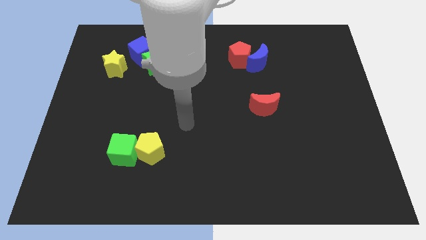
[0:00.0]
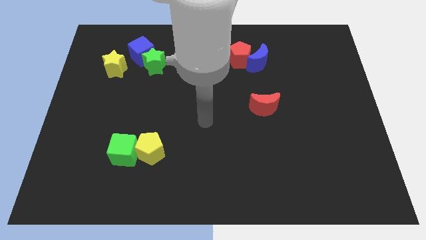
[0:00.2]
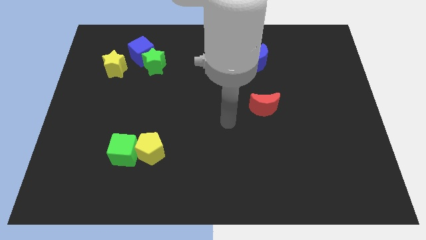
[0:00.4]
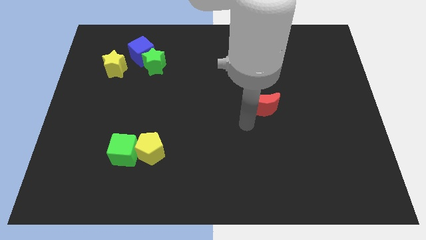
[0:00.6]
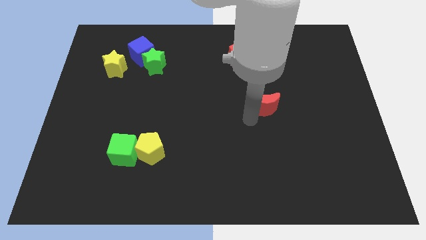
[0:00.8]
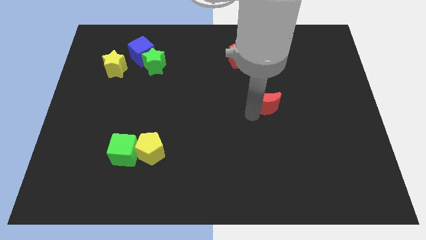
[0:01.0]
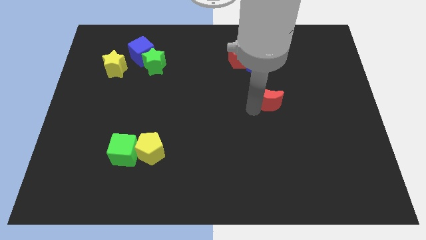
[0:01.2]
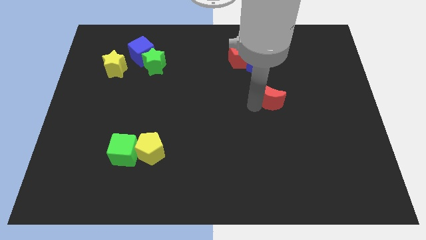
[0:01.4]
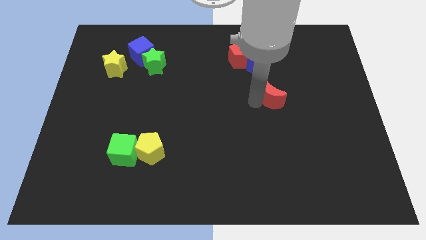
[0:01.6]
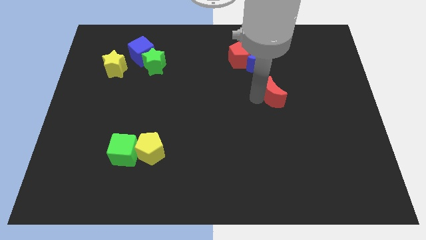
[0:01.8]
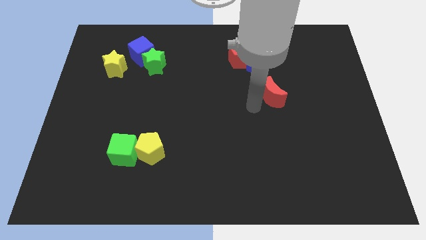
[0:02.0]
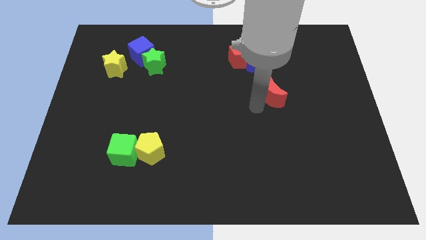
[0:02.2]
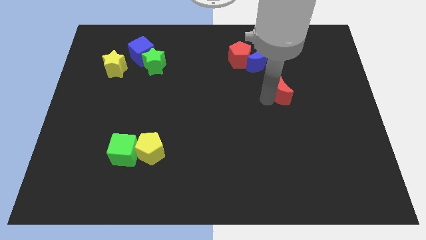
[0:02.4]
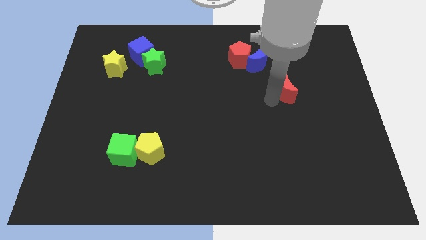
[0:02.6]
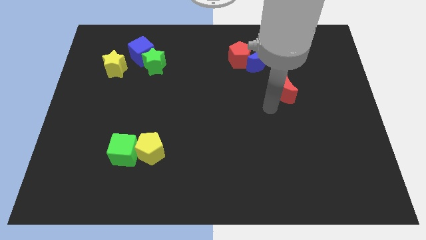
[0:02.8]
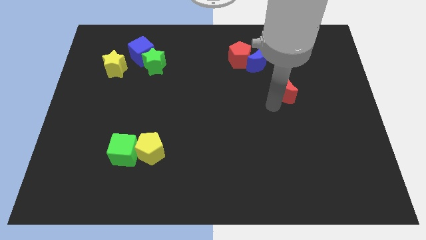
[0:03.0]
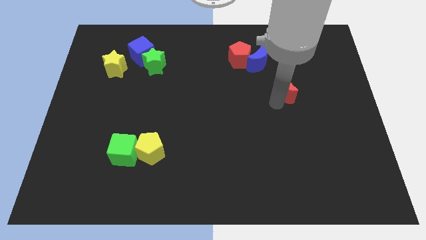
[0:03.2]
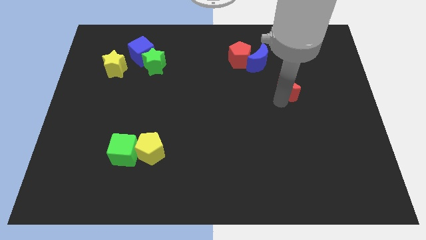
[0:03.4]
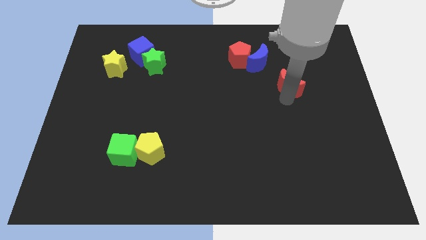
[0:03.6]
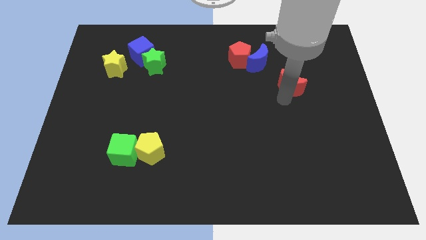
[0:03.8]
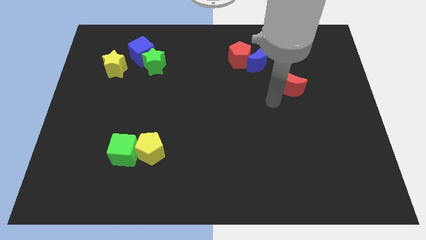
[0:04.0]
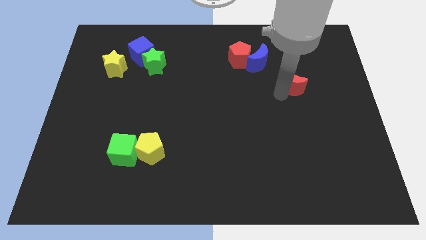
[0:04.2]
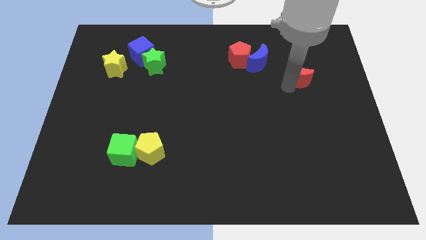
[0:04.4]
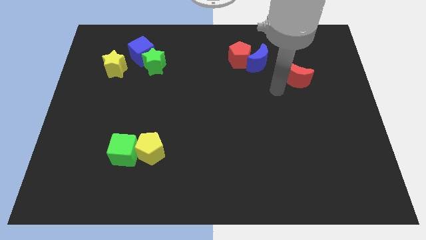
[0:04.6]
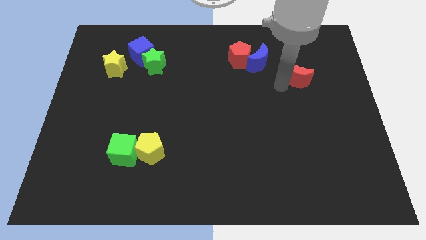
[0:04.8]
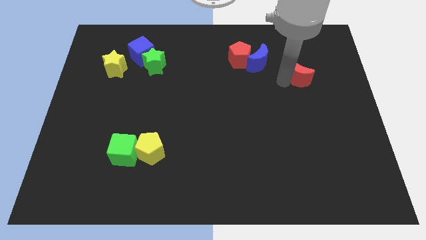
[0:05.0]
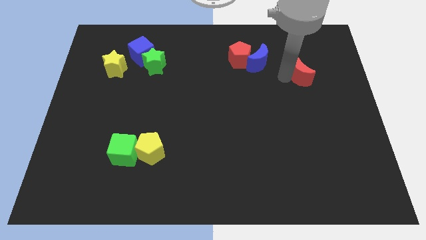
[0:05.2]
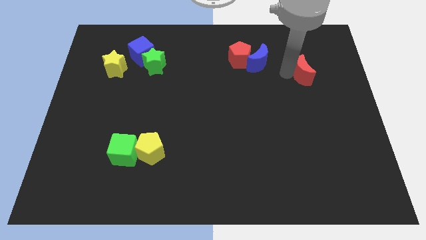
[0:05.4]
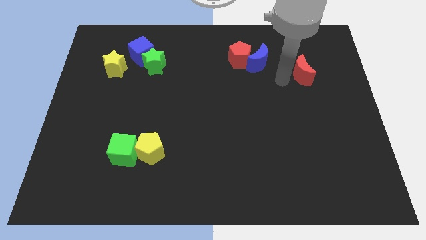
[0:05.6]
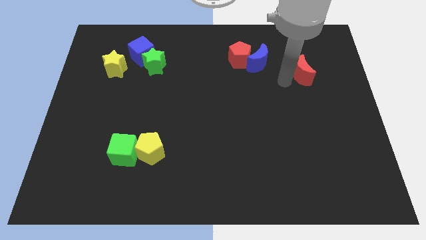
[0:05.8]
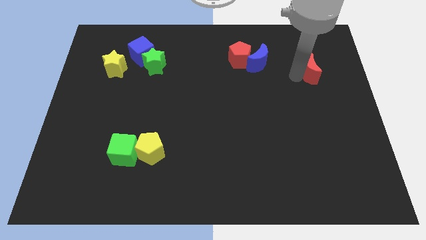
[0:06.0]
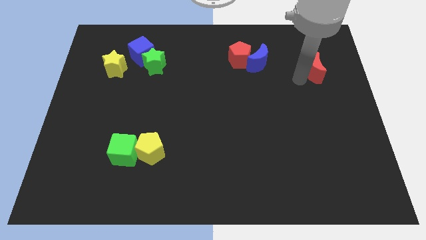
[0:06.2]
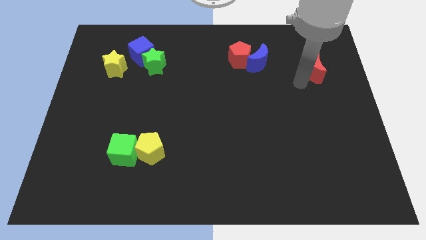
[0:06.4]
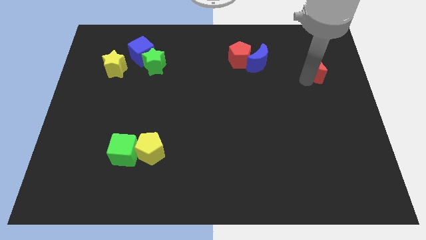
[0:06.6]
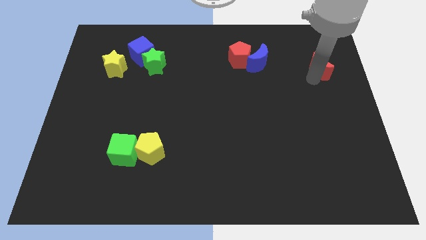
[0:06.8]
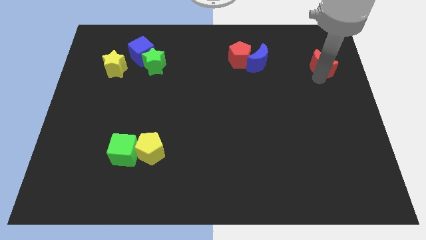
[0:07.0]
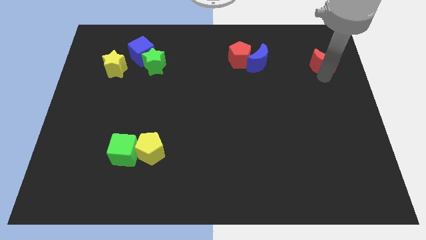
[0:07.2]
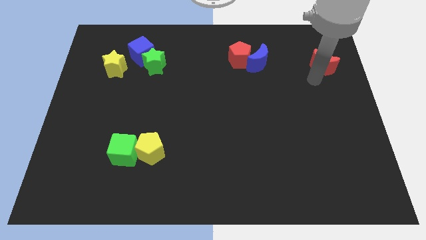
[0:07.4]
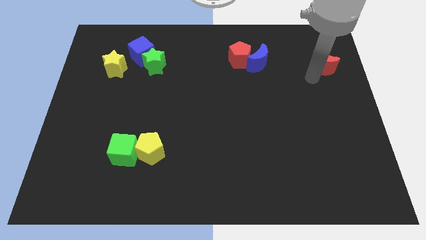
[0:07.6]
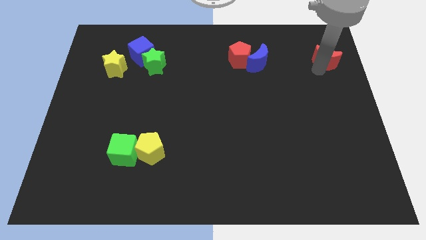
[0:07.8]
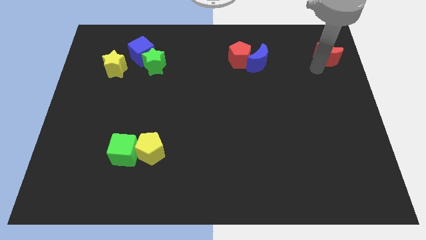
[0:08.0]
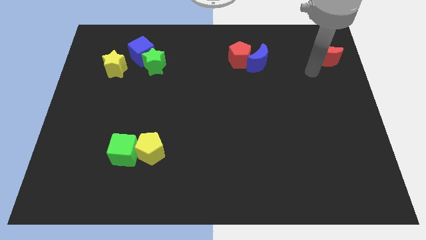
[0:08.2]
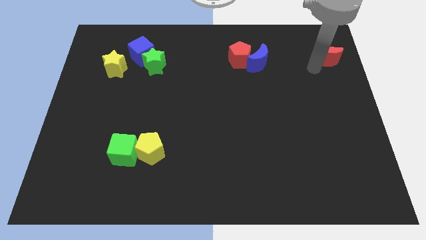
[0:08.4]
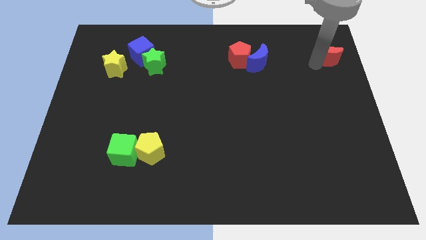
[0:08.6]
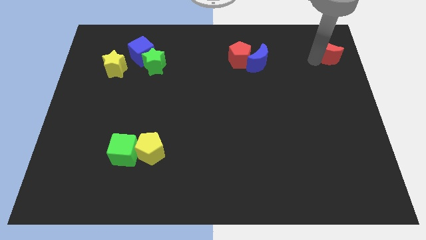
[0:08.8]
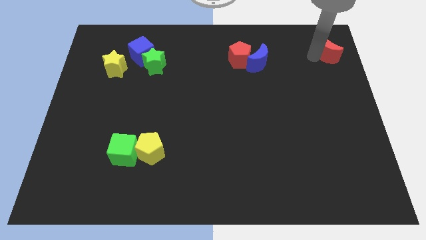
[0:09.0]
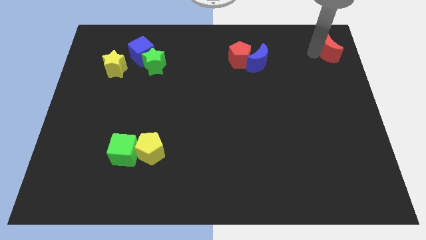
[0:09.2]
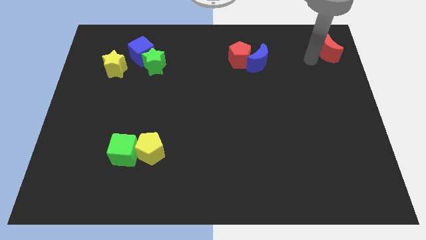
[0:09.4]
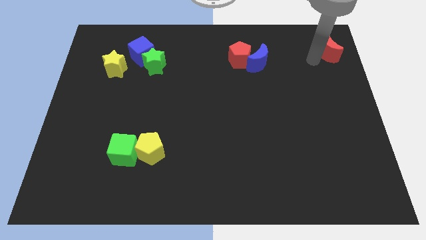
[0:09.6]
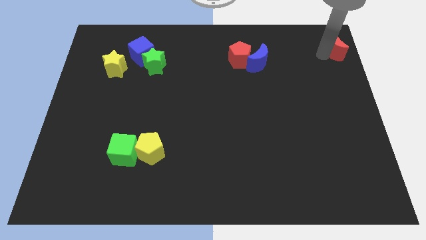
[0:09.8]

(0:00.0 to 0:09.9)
push the red moon to the top right

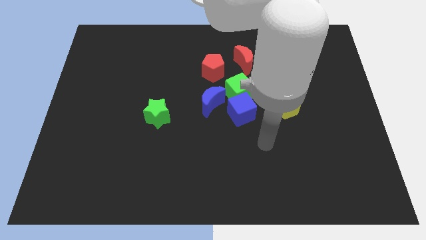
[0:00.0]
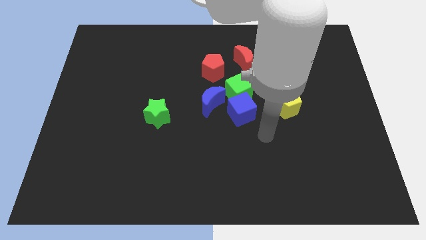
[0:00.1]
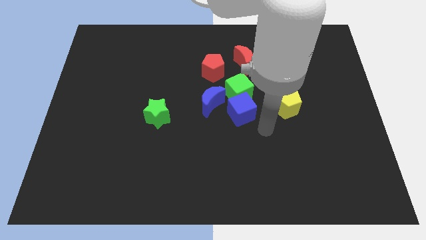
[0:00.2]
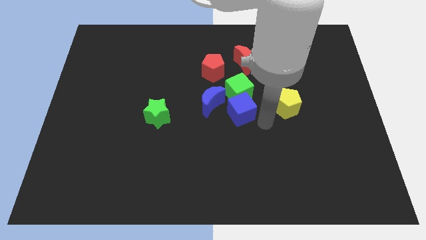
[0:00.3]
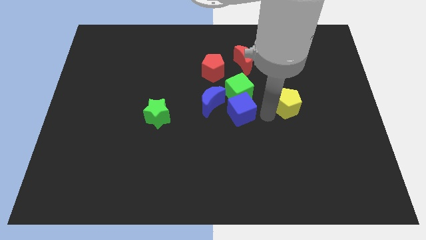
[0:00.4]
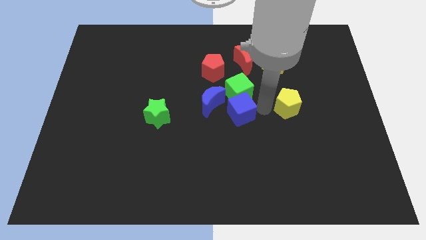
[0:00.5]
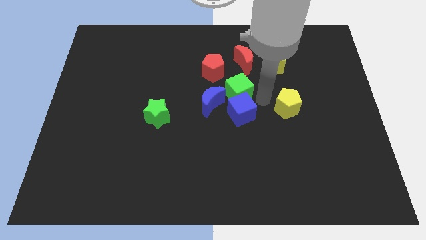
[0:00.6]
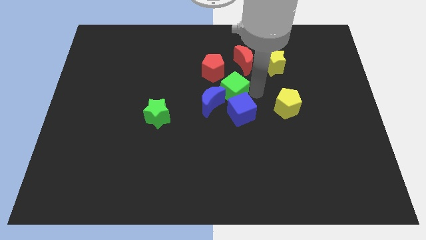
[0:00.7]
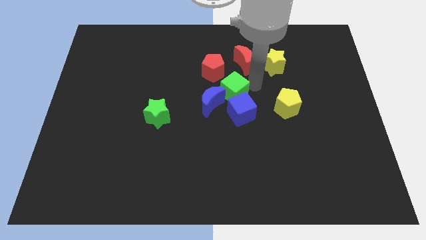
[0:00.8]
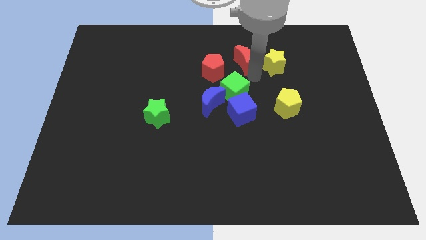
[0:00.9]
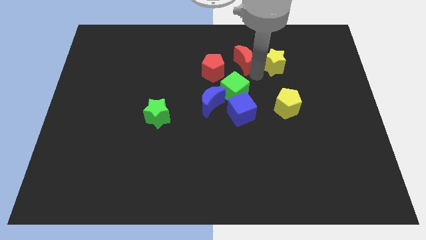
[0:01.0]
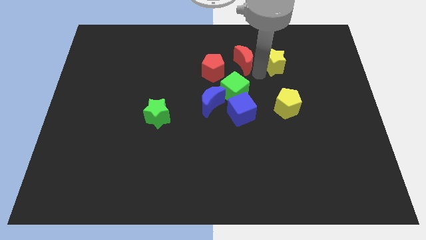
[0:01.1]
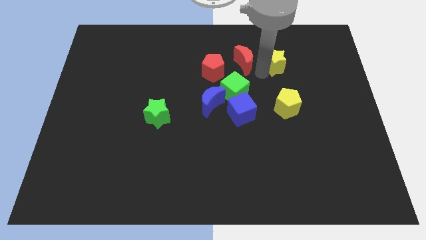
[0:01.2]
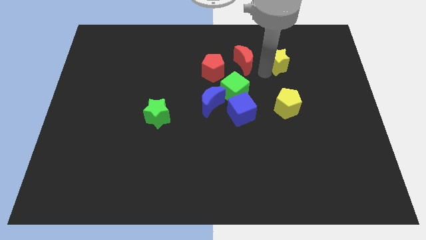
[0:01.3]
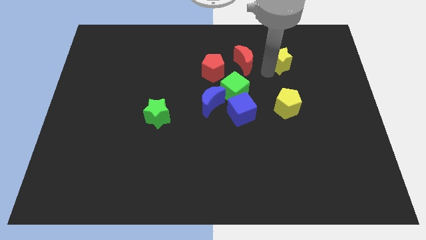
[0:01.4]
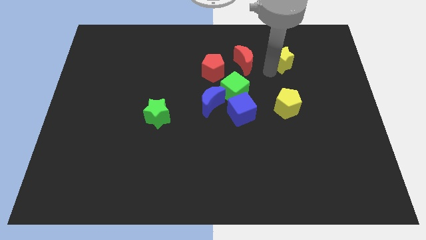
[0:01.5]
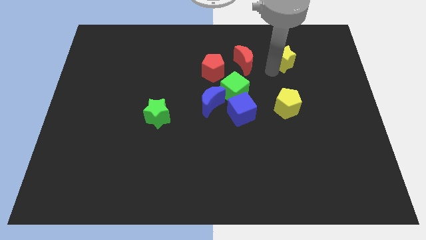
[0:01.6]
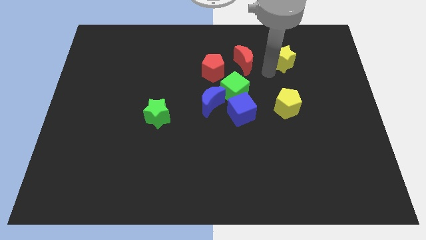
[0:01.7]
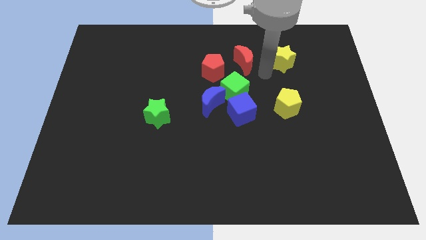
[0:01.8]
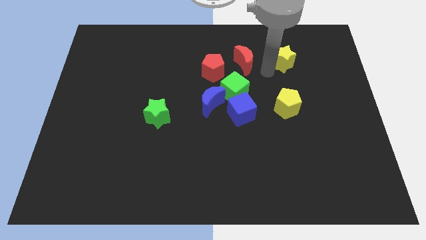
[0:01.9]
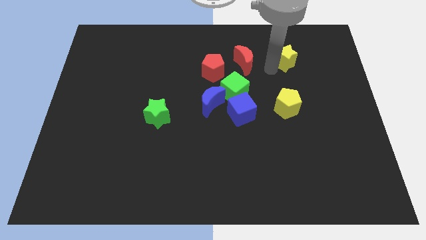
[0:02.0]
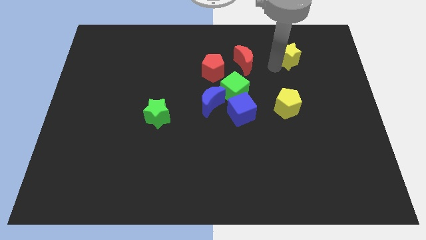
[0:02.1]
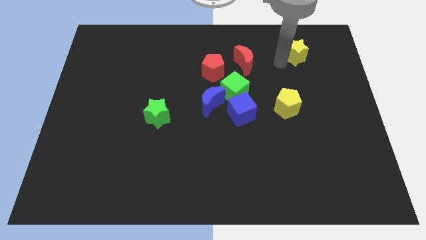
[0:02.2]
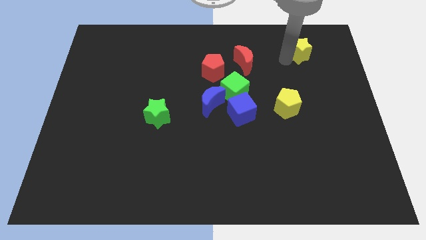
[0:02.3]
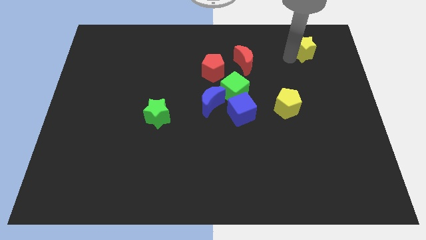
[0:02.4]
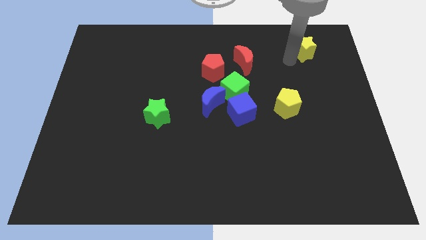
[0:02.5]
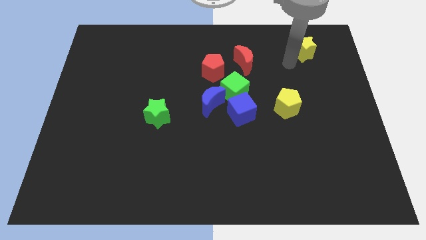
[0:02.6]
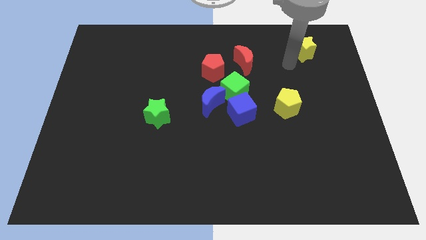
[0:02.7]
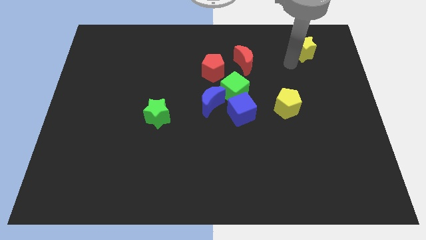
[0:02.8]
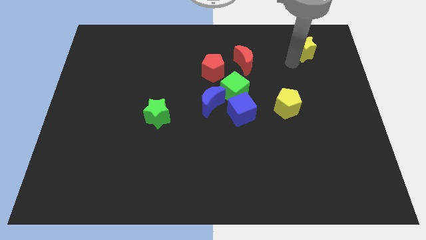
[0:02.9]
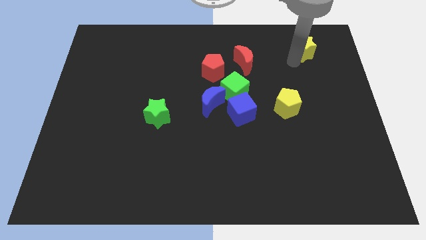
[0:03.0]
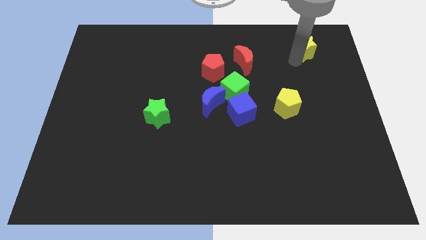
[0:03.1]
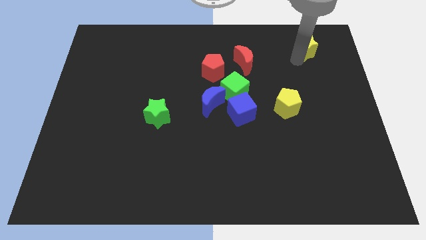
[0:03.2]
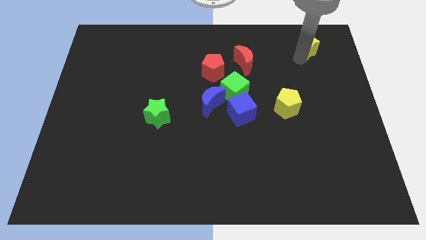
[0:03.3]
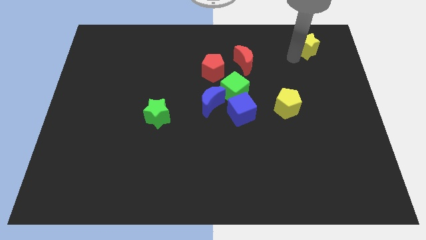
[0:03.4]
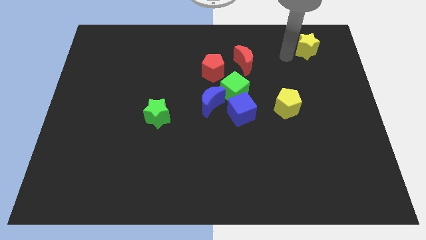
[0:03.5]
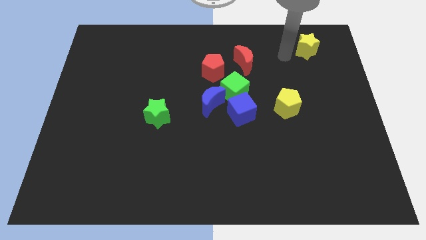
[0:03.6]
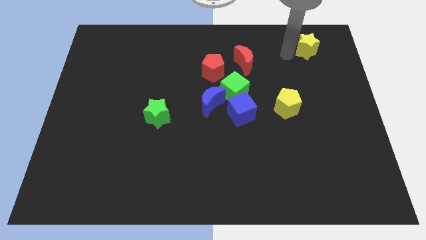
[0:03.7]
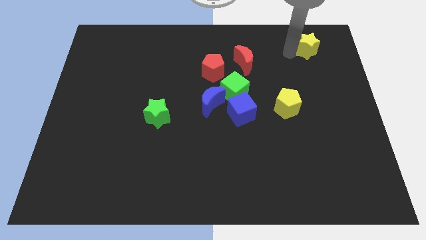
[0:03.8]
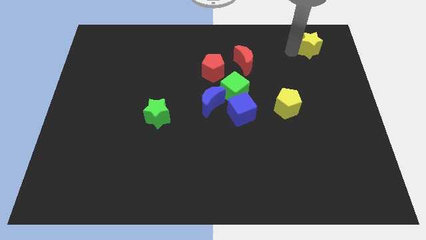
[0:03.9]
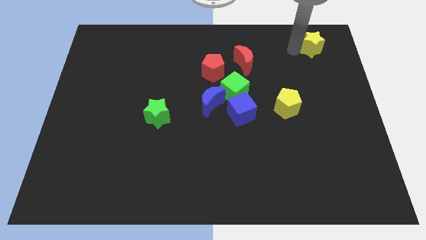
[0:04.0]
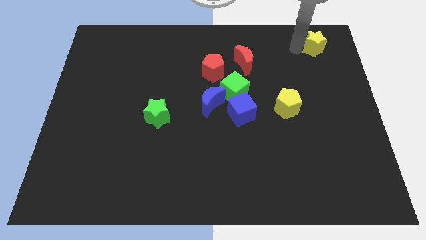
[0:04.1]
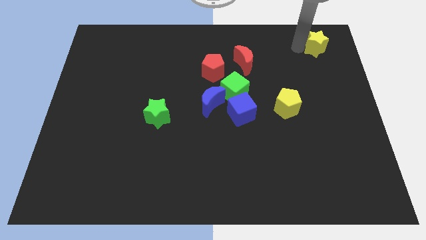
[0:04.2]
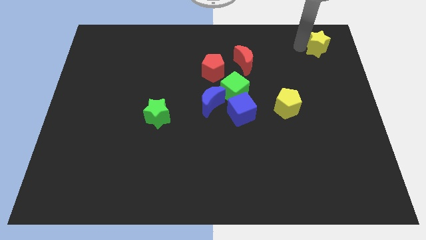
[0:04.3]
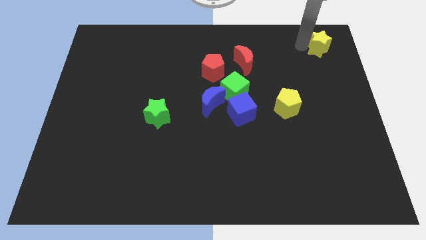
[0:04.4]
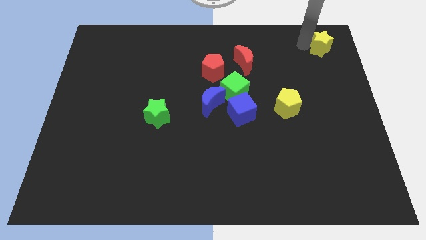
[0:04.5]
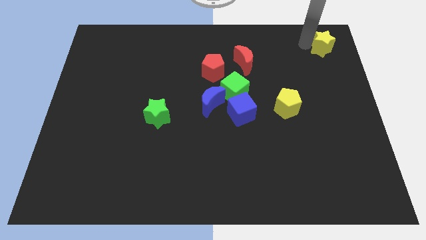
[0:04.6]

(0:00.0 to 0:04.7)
put the yellow star to the top right of the board
